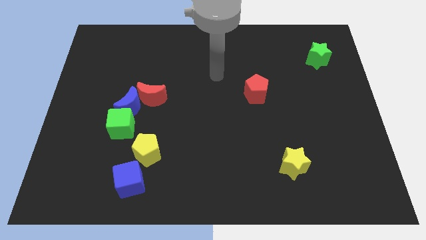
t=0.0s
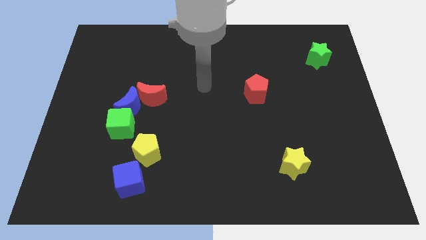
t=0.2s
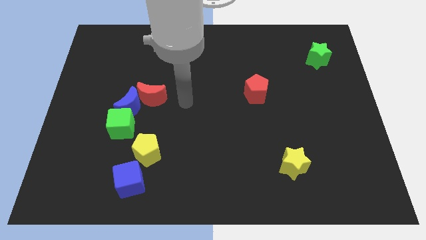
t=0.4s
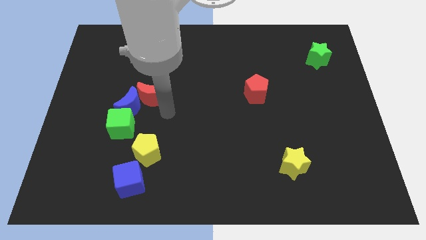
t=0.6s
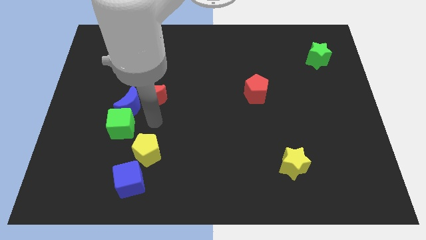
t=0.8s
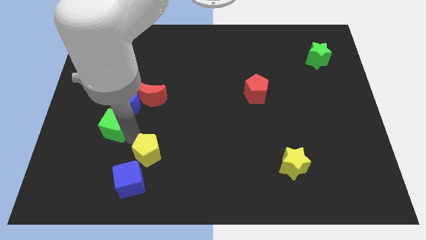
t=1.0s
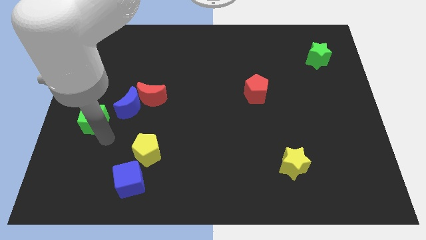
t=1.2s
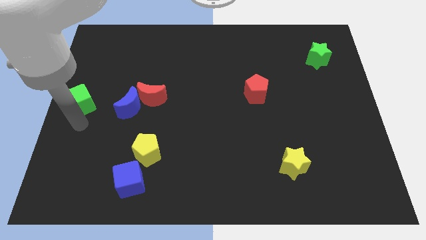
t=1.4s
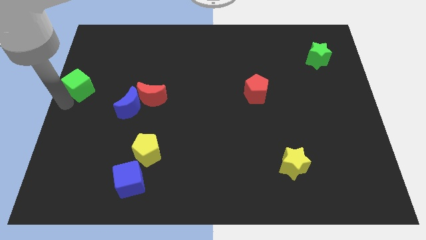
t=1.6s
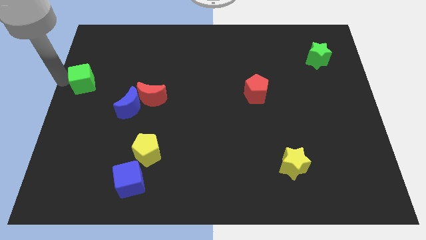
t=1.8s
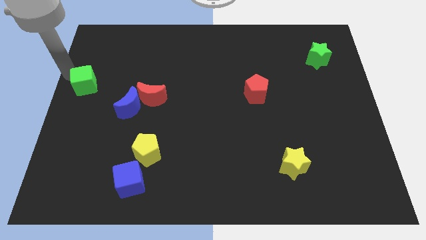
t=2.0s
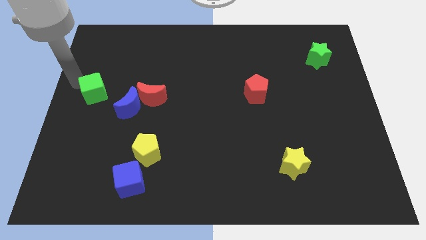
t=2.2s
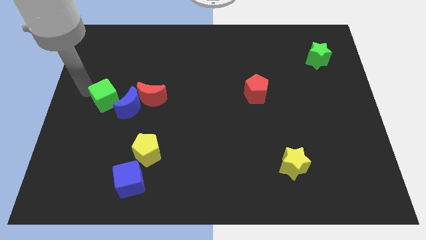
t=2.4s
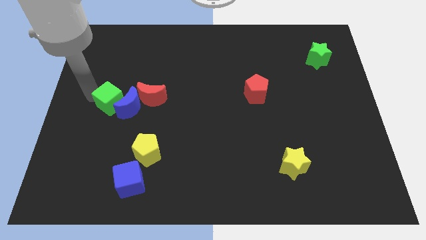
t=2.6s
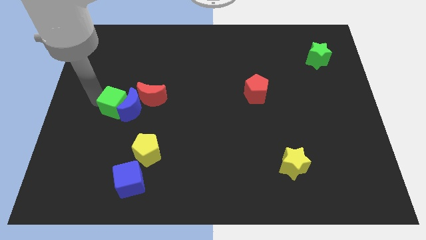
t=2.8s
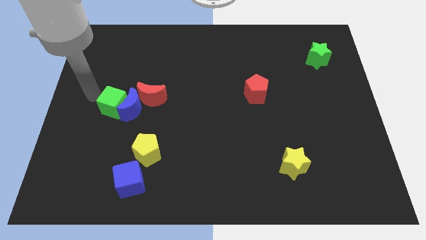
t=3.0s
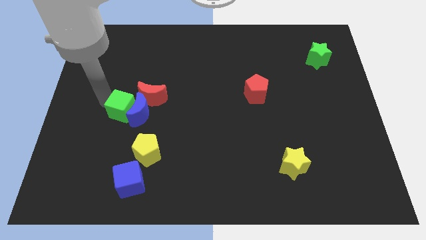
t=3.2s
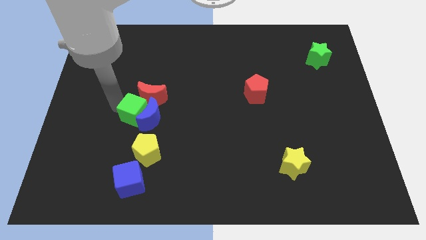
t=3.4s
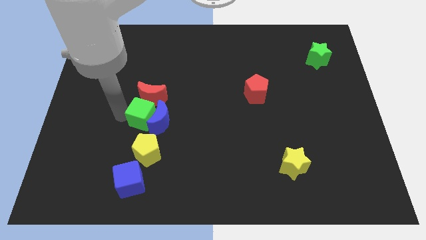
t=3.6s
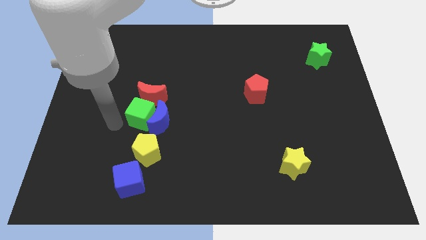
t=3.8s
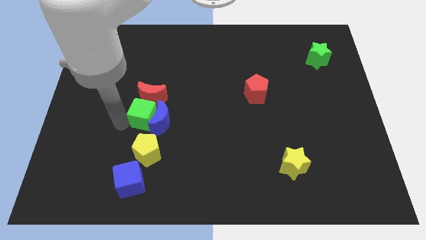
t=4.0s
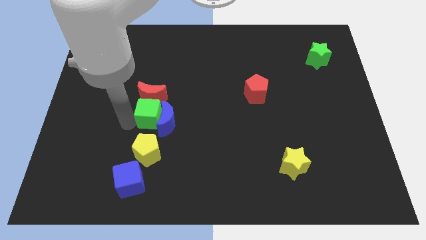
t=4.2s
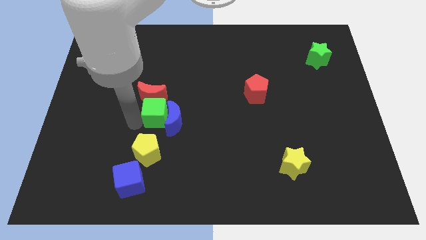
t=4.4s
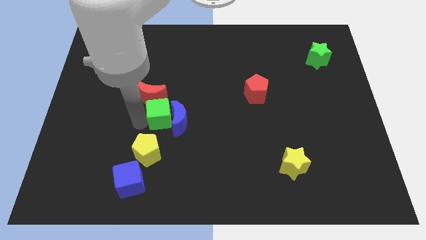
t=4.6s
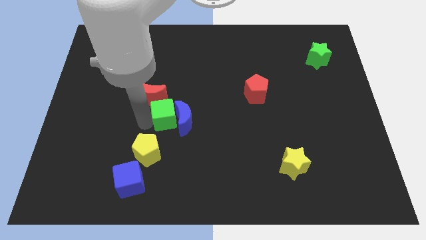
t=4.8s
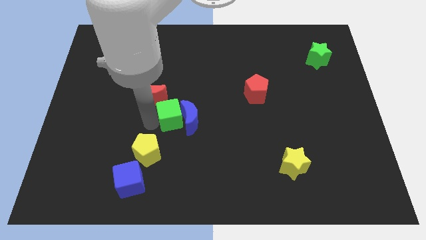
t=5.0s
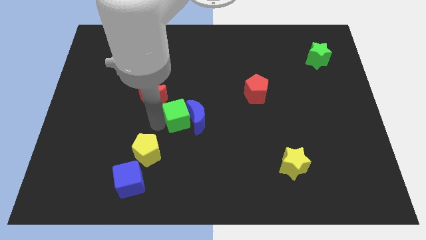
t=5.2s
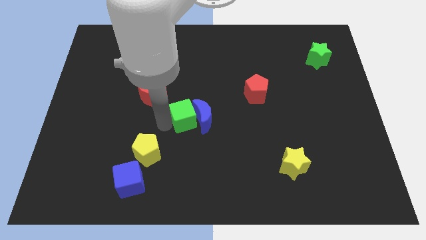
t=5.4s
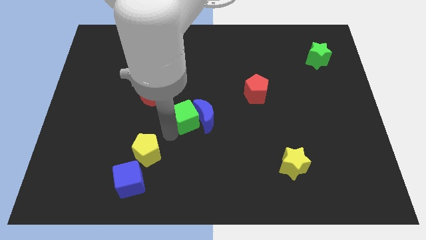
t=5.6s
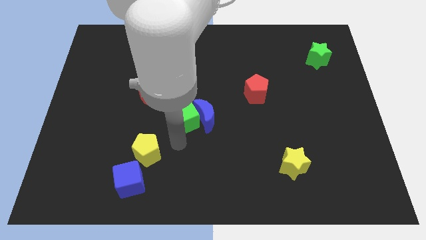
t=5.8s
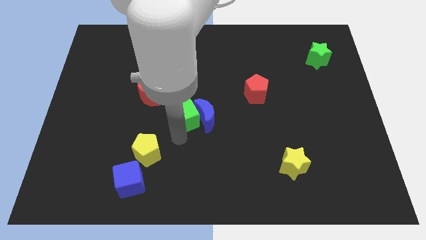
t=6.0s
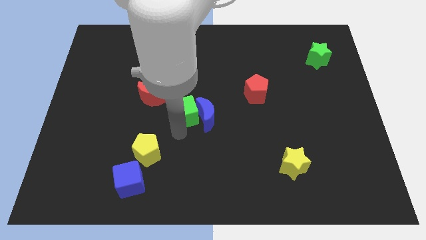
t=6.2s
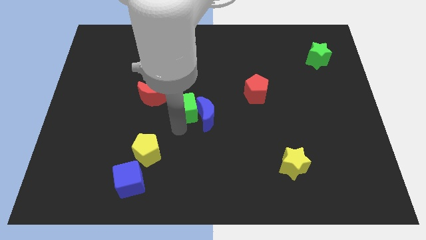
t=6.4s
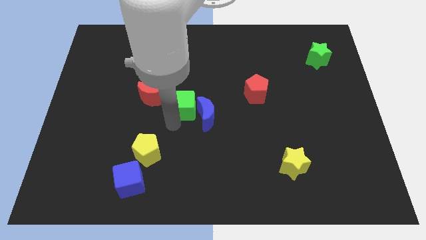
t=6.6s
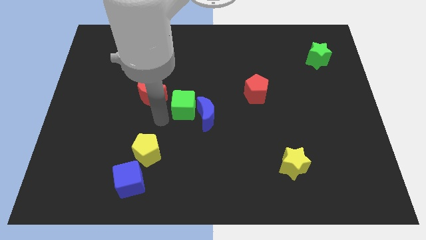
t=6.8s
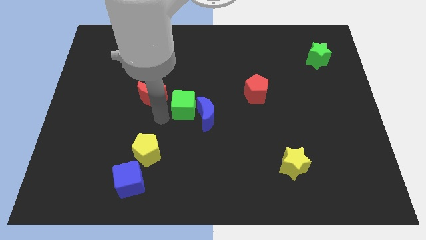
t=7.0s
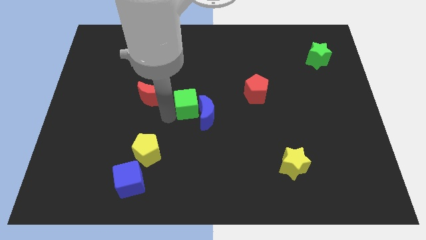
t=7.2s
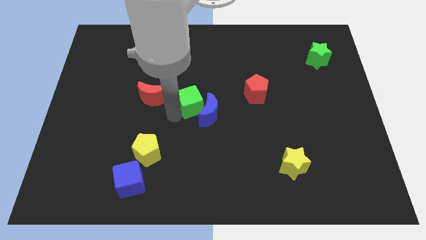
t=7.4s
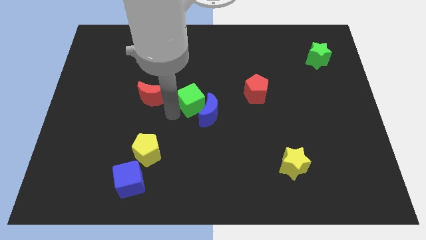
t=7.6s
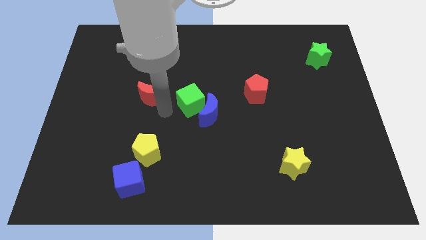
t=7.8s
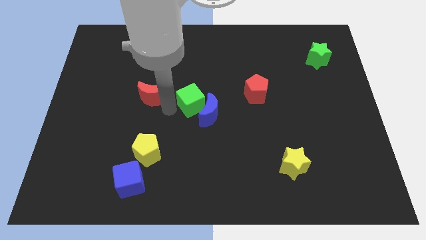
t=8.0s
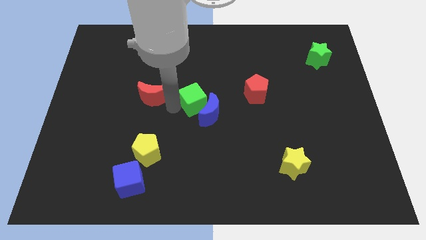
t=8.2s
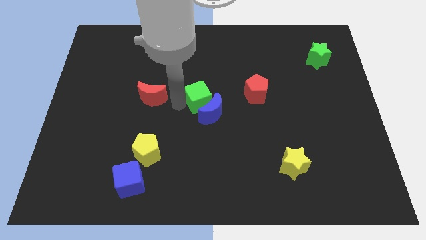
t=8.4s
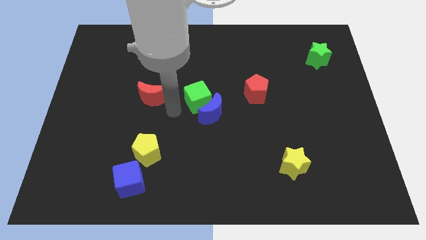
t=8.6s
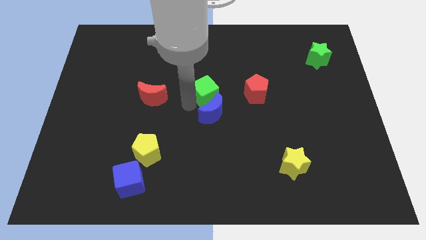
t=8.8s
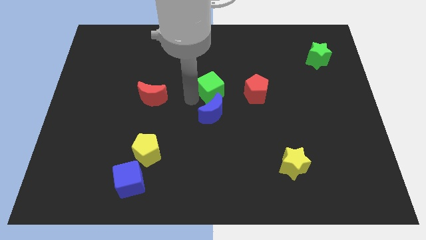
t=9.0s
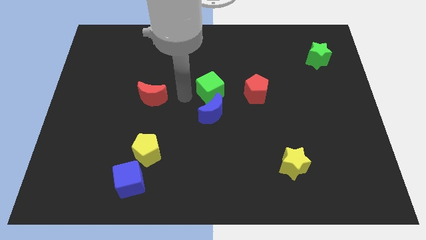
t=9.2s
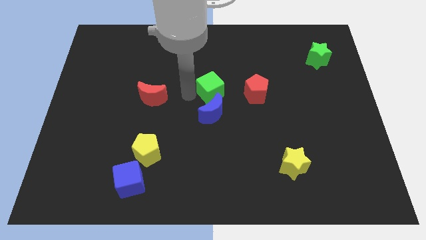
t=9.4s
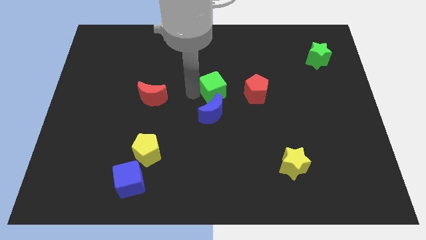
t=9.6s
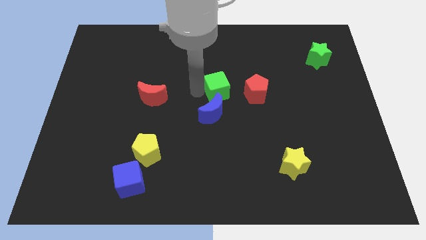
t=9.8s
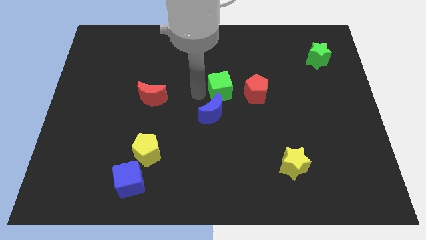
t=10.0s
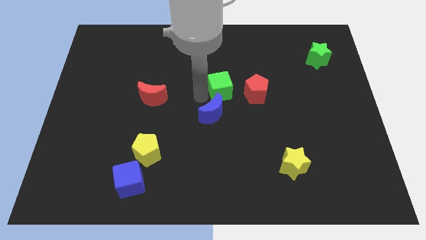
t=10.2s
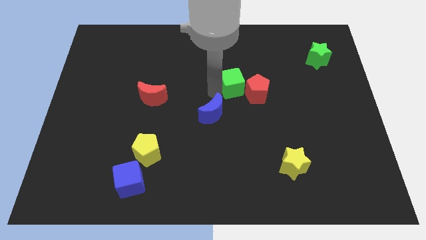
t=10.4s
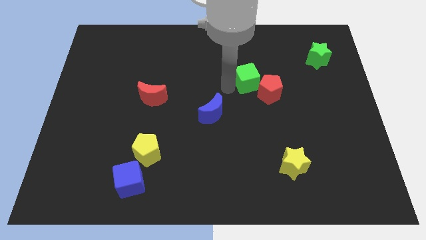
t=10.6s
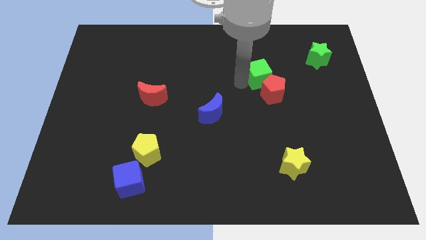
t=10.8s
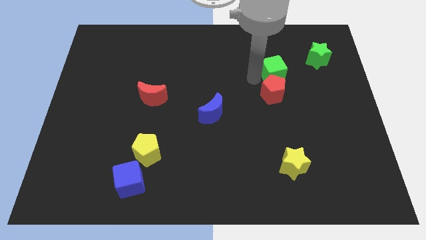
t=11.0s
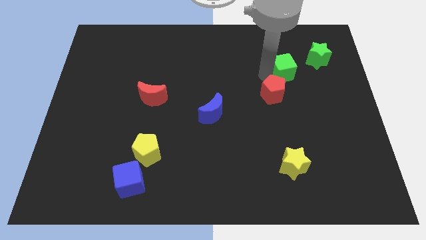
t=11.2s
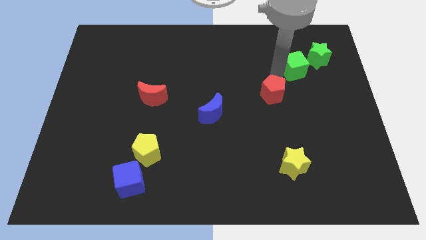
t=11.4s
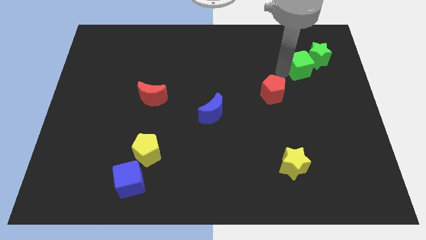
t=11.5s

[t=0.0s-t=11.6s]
slide the green cube to the green star
